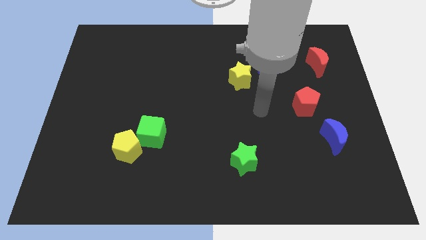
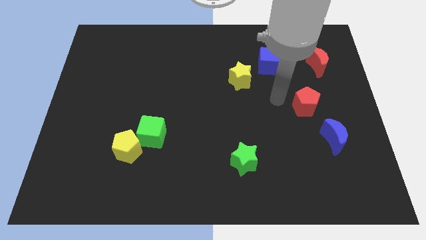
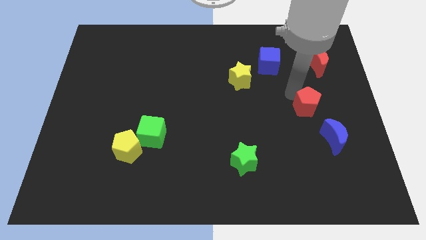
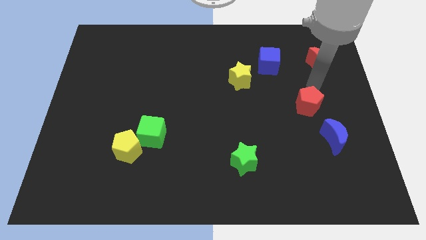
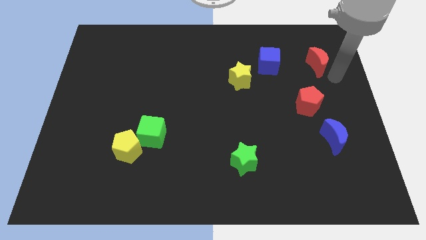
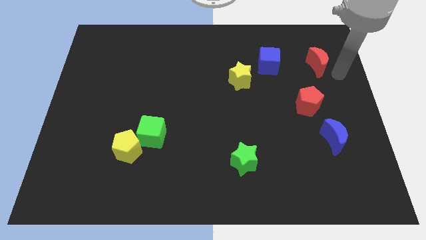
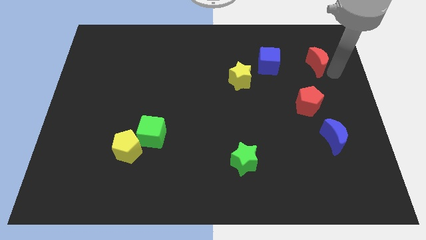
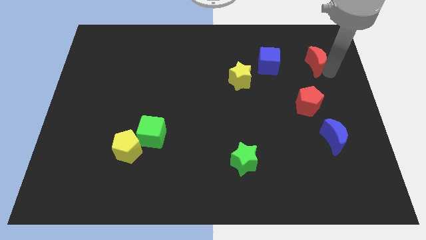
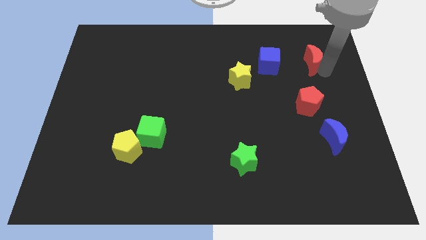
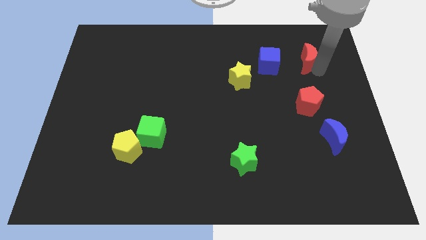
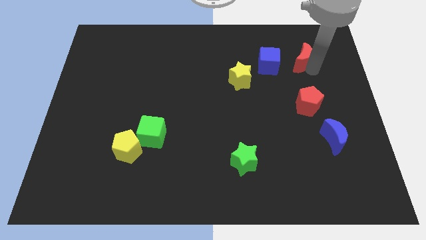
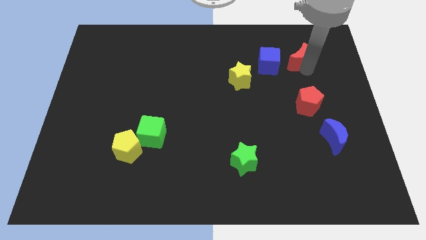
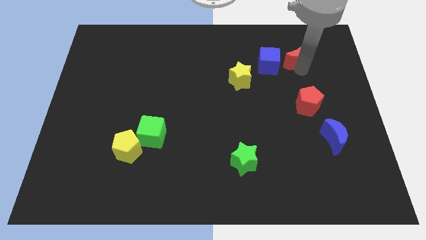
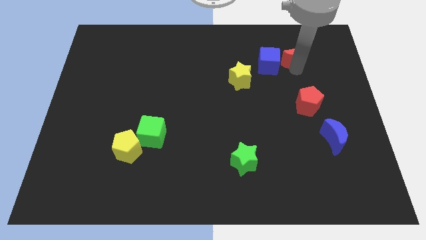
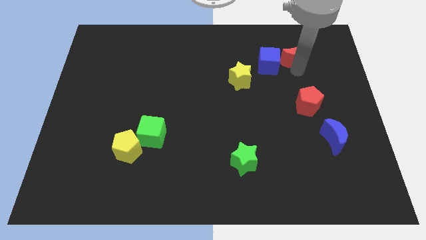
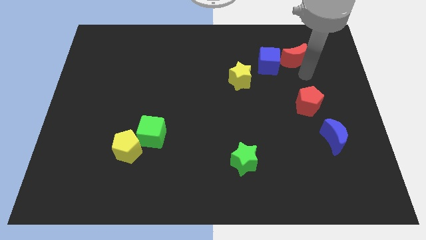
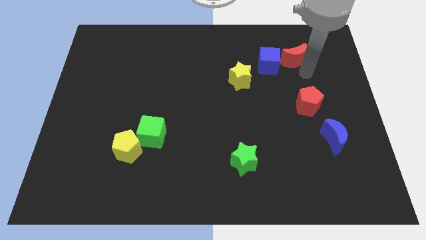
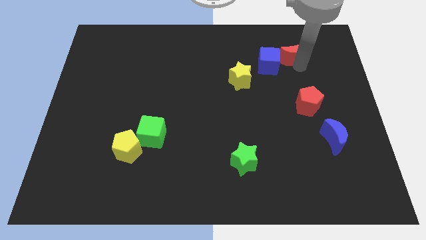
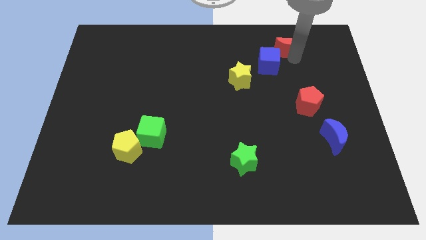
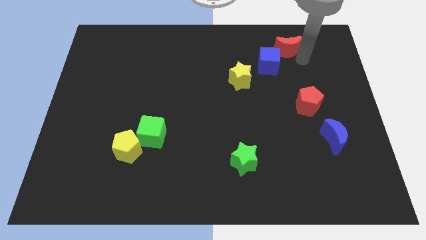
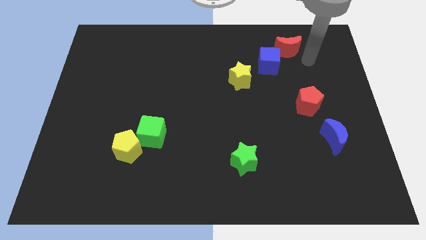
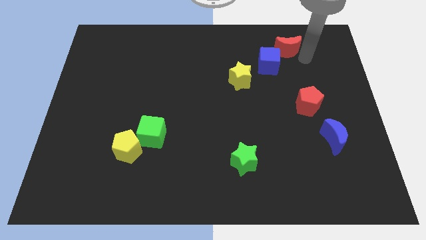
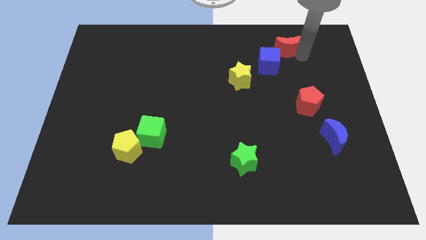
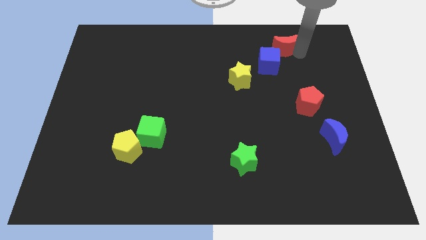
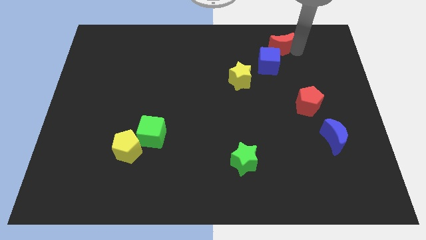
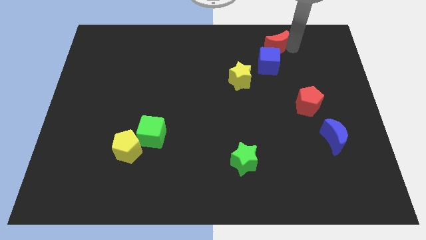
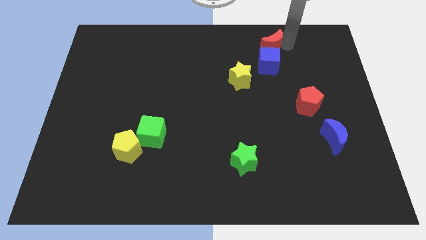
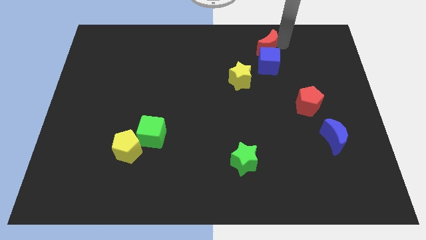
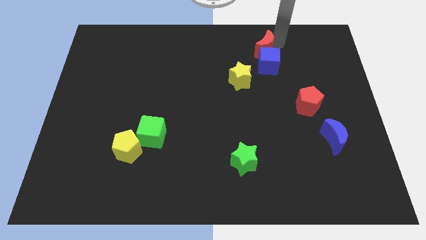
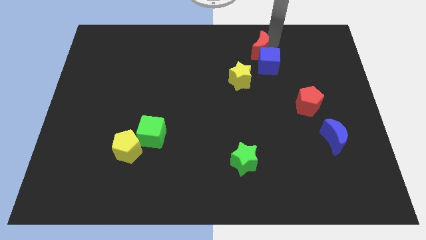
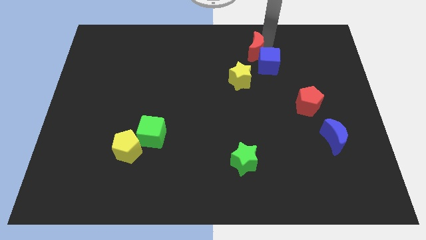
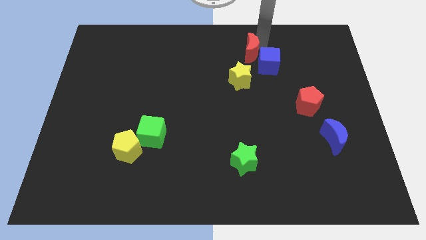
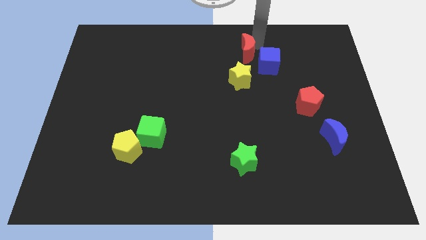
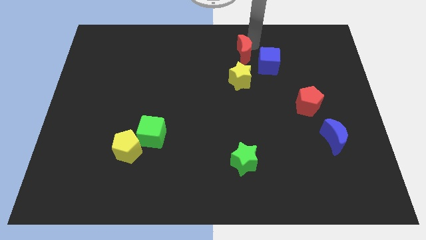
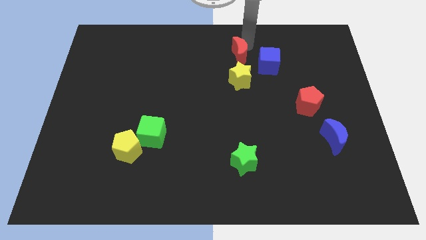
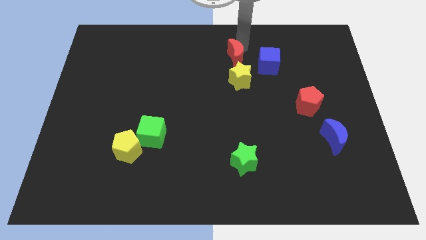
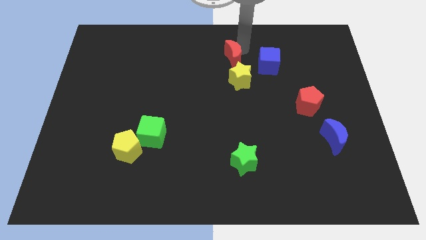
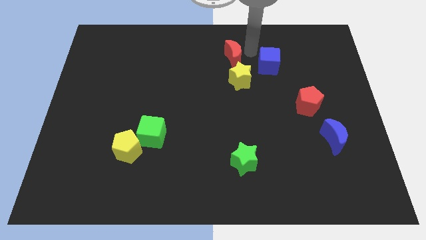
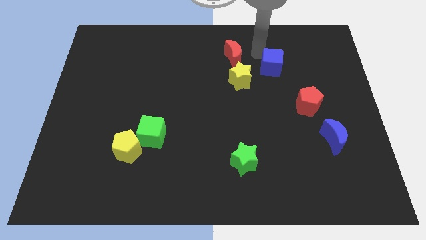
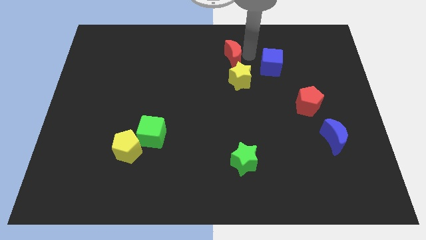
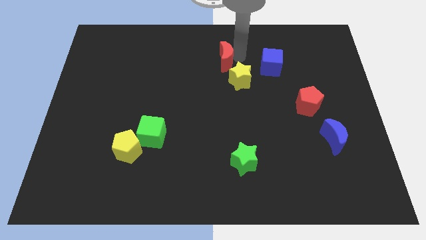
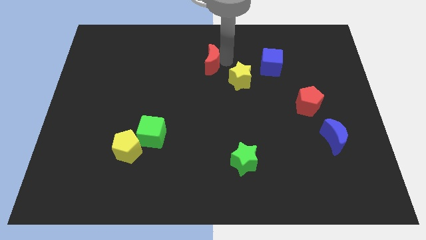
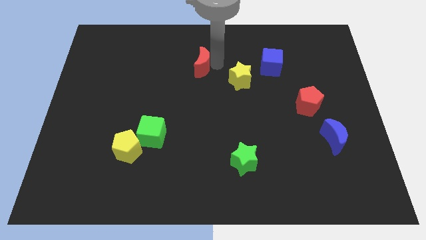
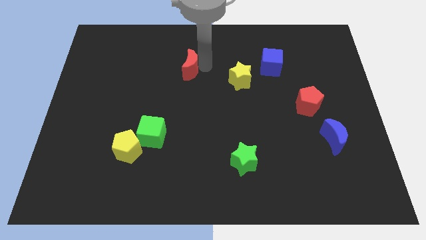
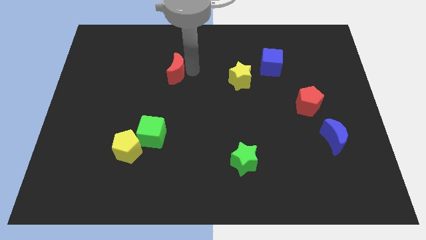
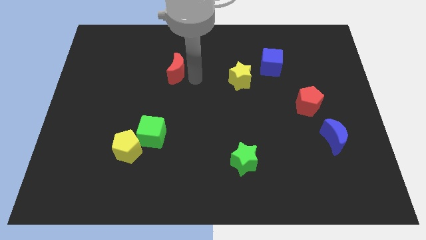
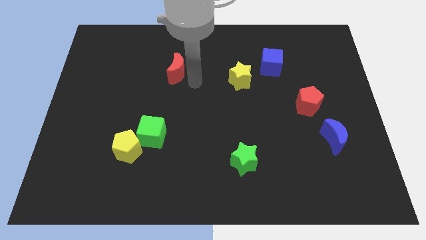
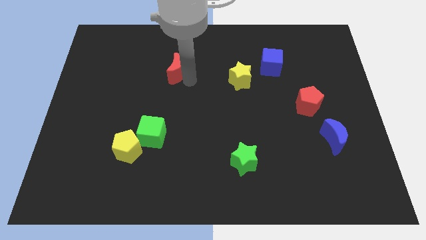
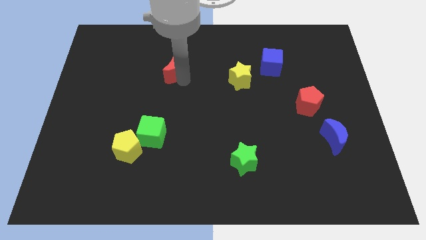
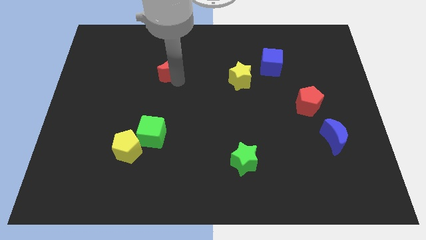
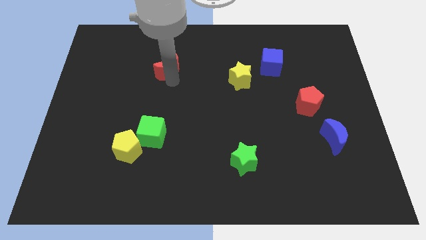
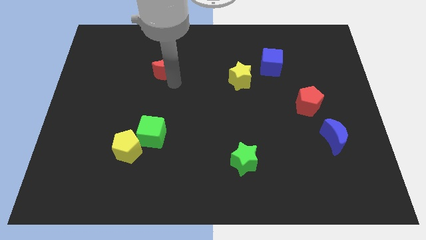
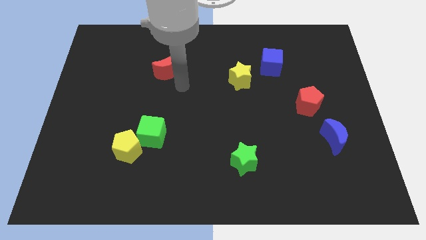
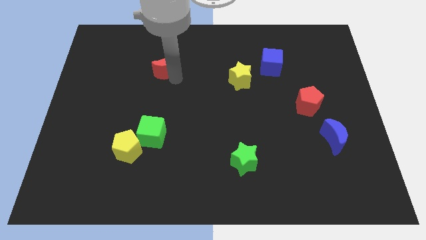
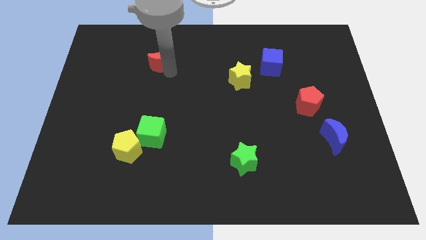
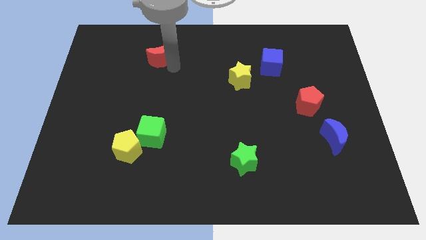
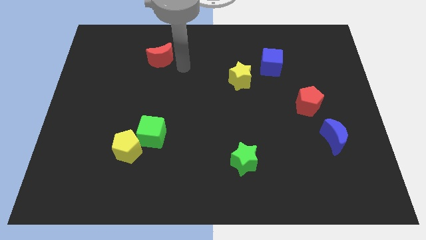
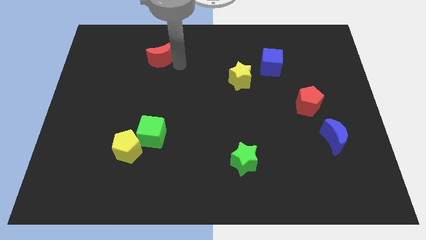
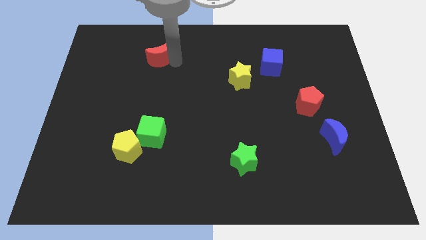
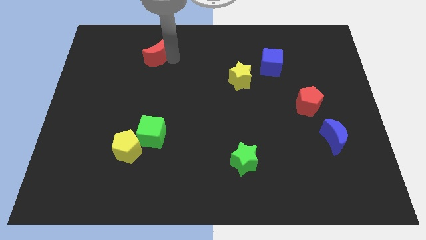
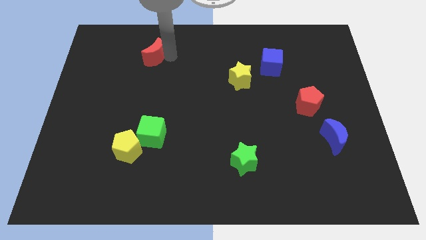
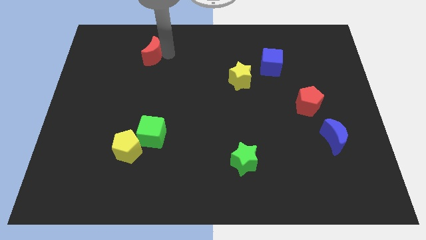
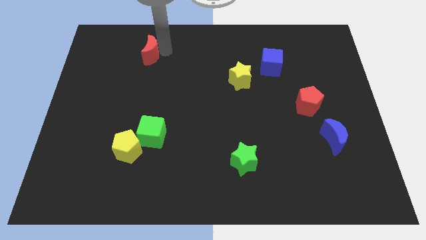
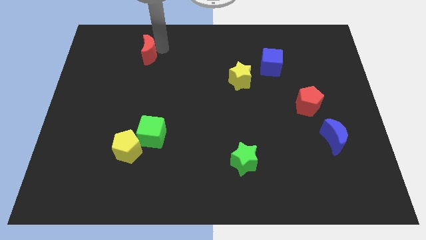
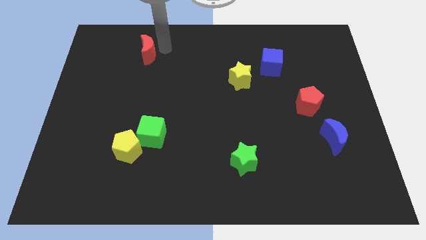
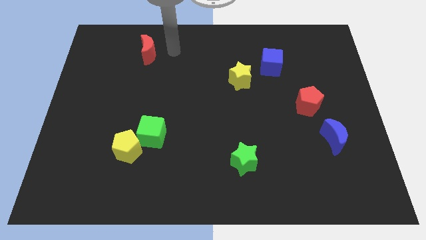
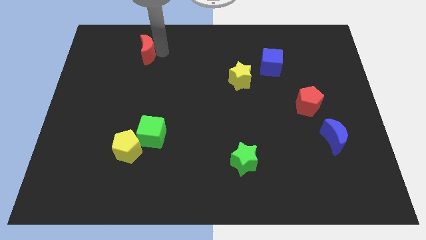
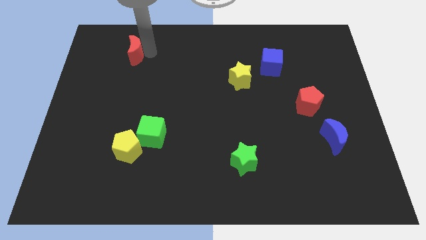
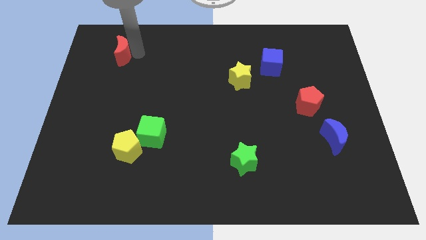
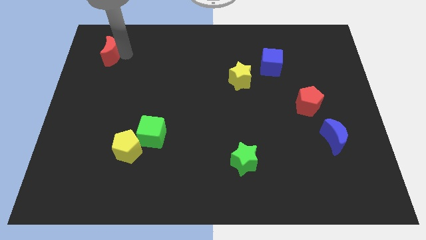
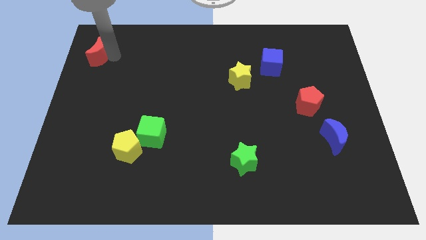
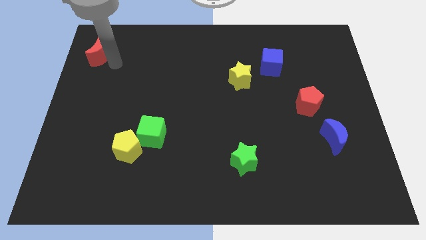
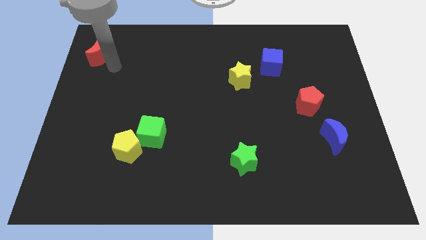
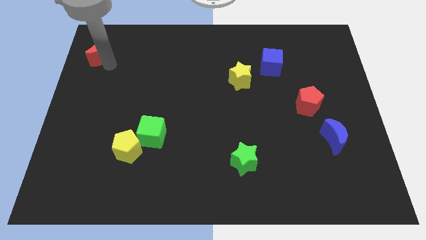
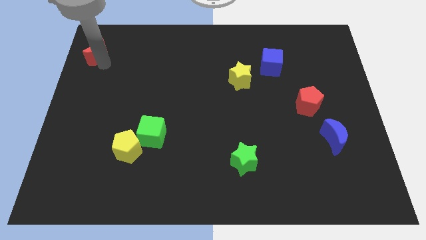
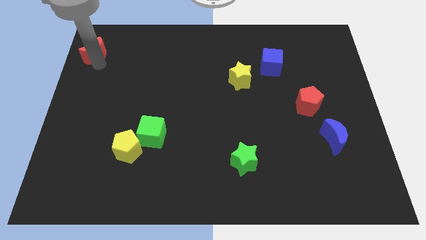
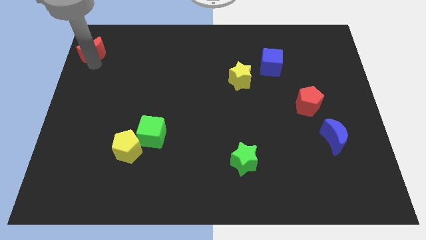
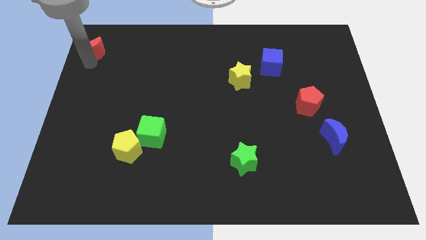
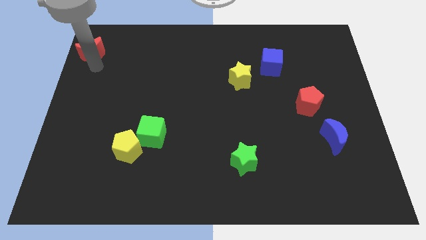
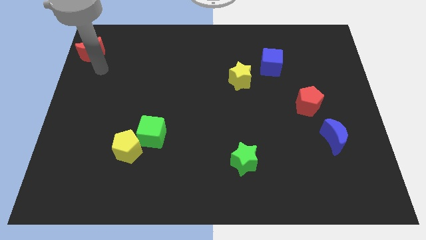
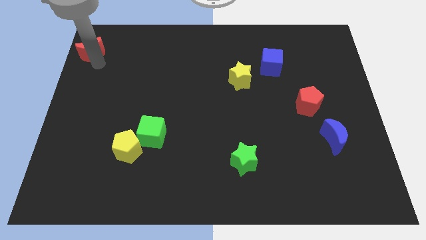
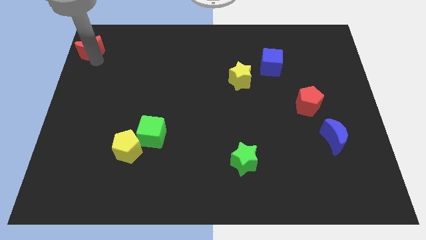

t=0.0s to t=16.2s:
slide the red moon to the top left corner
